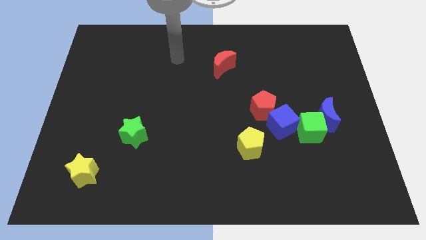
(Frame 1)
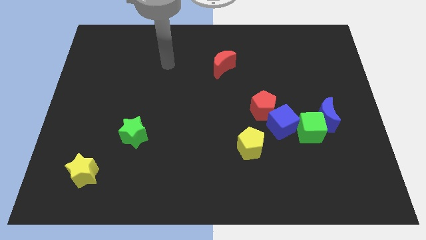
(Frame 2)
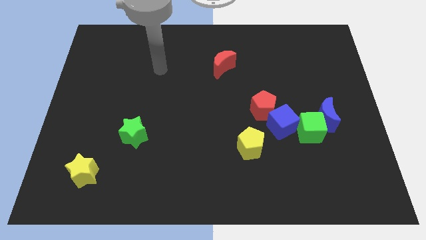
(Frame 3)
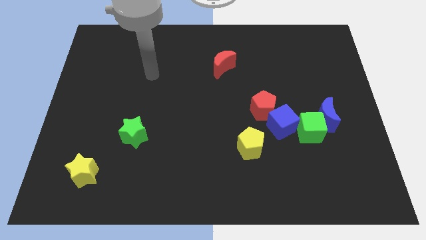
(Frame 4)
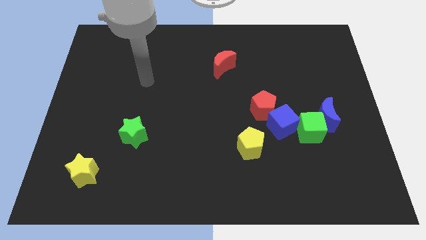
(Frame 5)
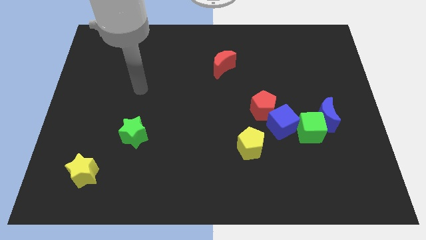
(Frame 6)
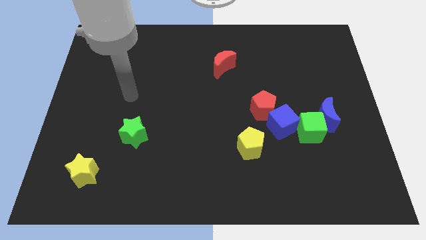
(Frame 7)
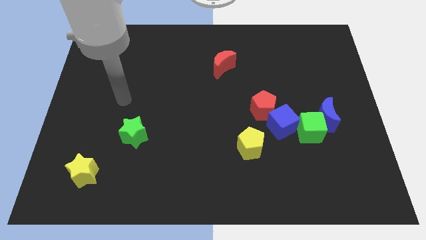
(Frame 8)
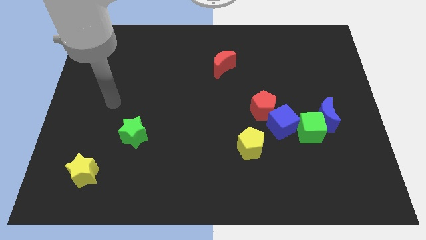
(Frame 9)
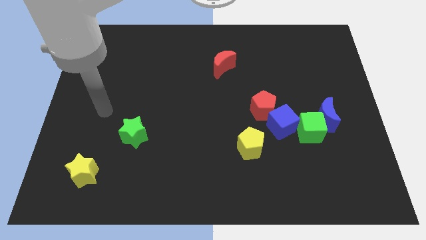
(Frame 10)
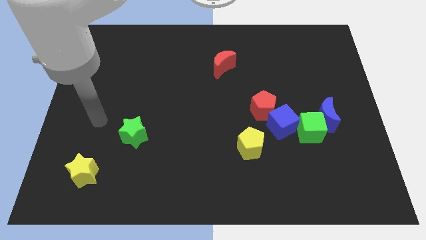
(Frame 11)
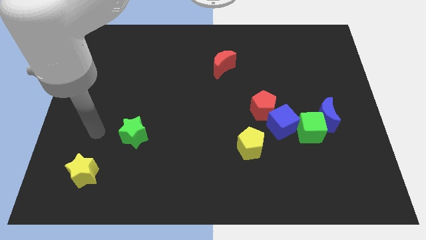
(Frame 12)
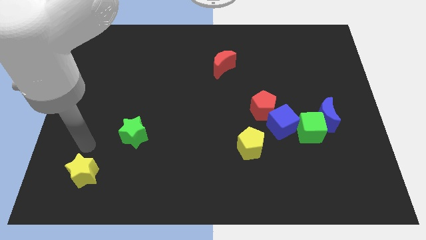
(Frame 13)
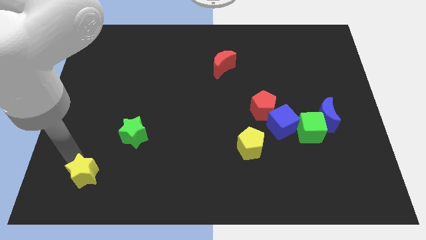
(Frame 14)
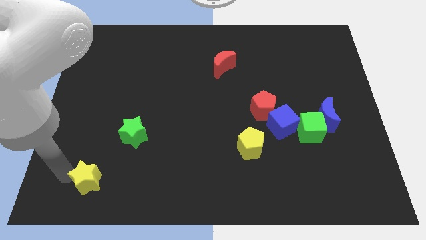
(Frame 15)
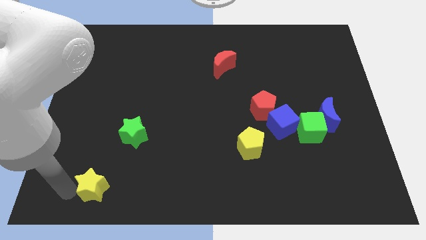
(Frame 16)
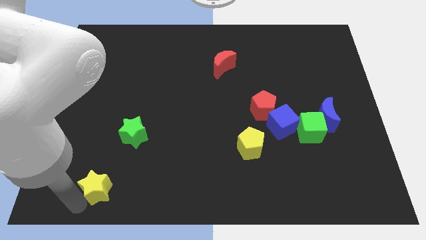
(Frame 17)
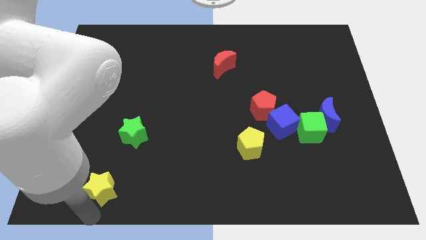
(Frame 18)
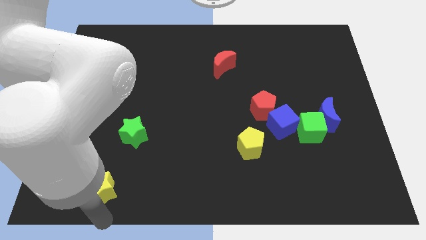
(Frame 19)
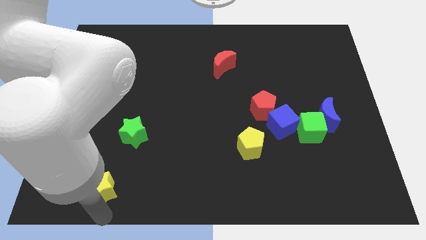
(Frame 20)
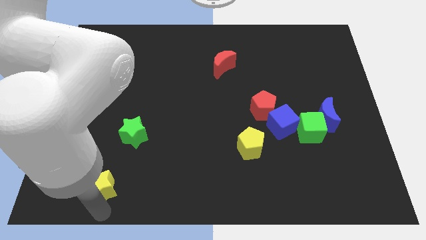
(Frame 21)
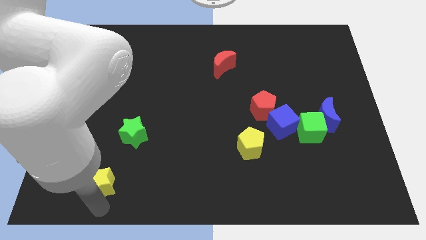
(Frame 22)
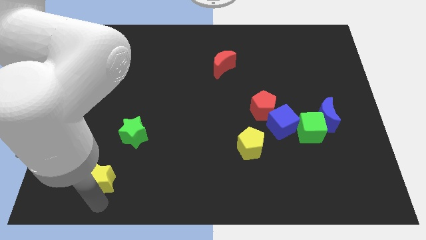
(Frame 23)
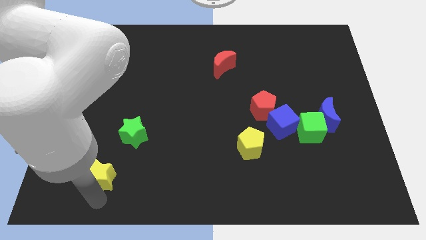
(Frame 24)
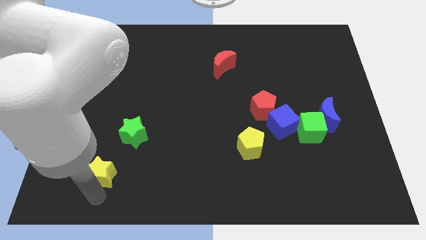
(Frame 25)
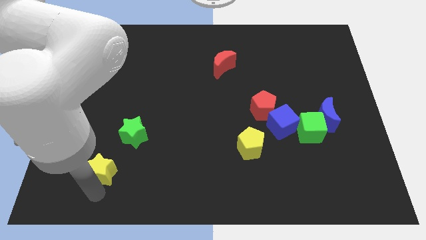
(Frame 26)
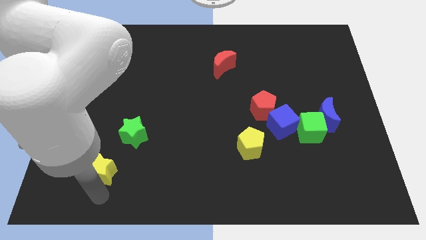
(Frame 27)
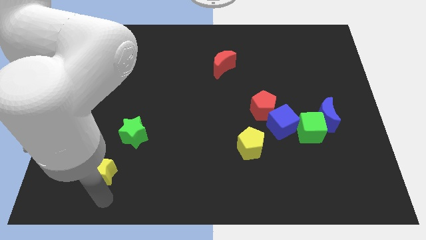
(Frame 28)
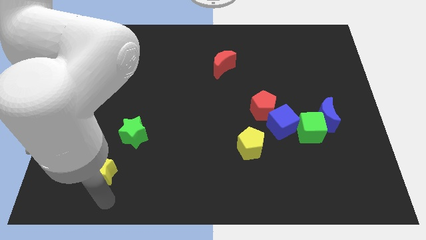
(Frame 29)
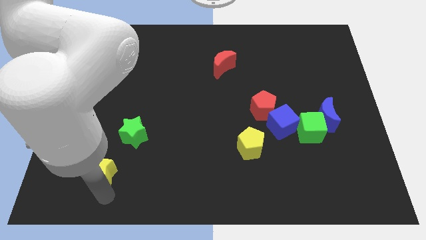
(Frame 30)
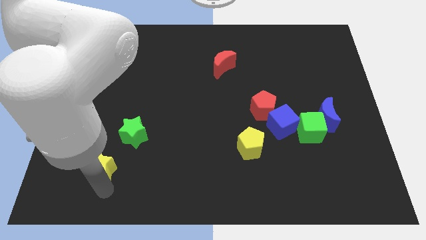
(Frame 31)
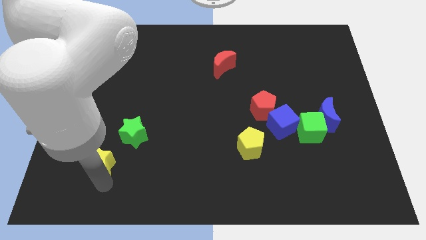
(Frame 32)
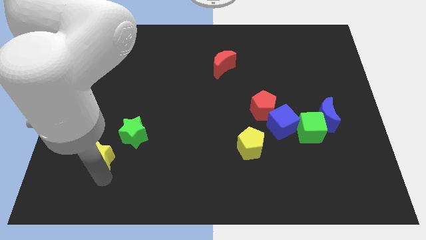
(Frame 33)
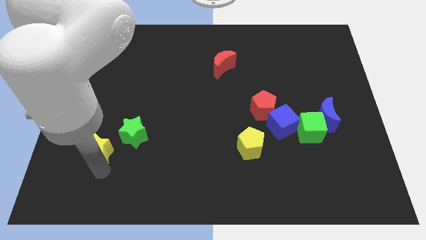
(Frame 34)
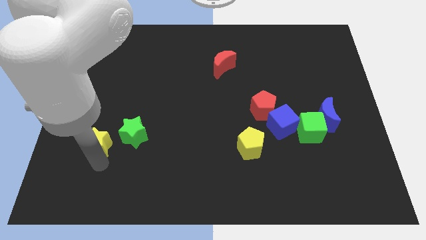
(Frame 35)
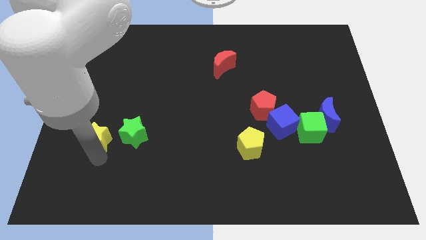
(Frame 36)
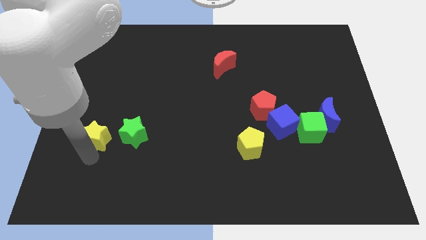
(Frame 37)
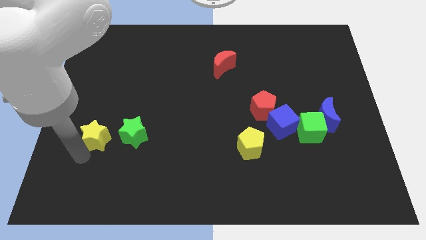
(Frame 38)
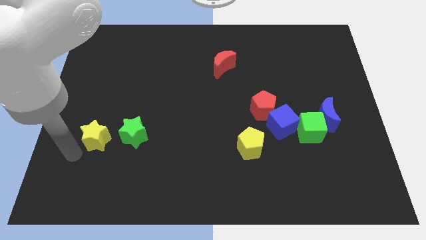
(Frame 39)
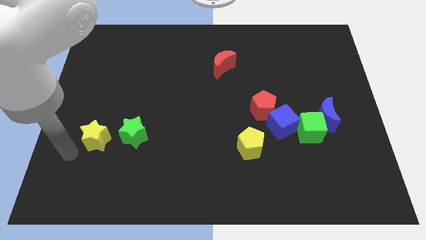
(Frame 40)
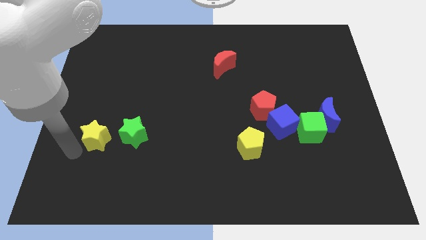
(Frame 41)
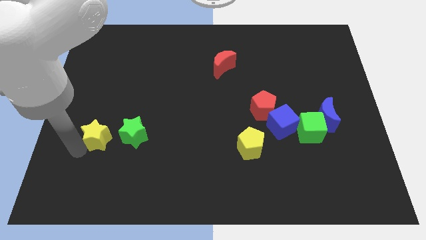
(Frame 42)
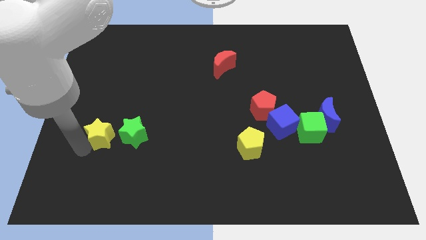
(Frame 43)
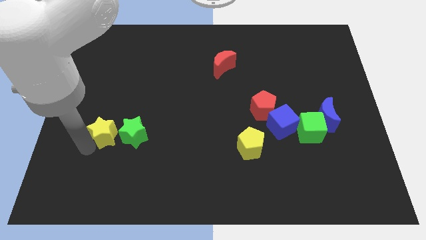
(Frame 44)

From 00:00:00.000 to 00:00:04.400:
slightly push the yellow star up and to the right diagonally

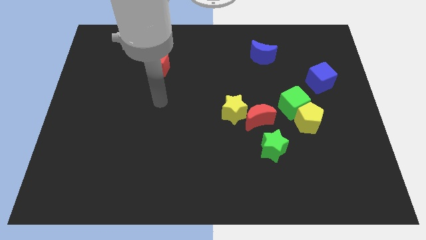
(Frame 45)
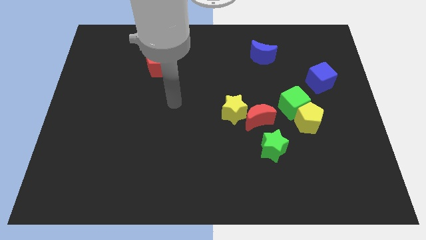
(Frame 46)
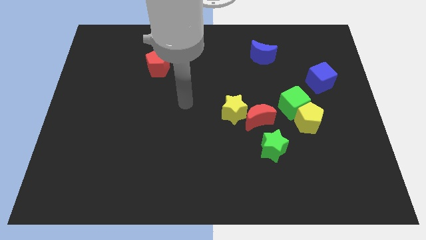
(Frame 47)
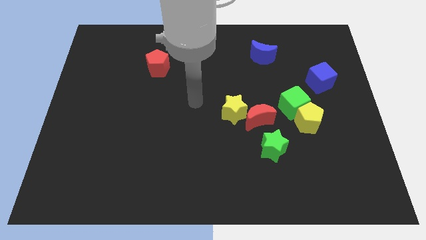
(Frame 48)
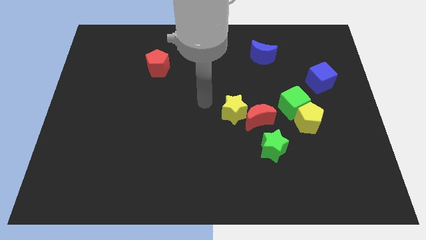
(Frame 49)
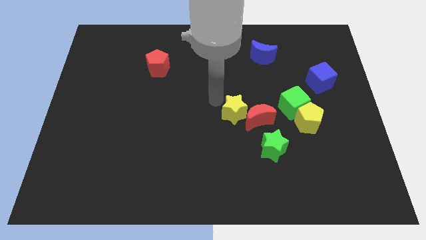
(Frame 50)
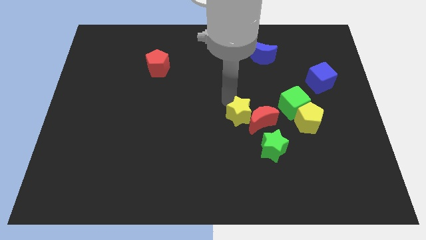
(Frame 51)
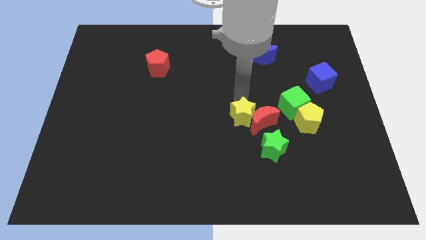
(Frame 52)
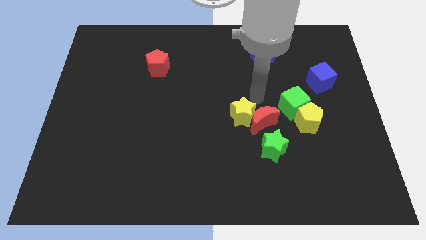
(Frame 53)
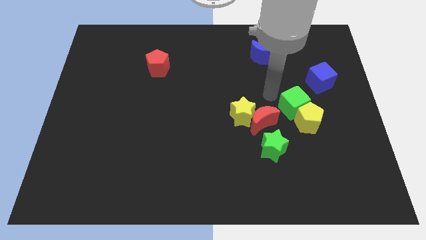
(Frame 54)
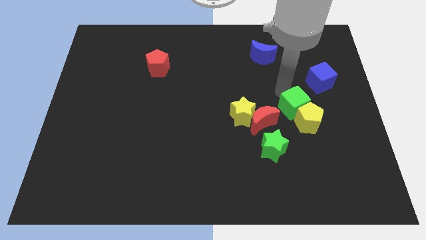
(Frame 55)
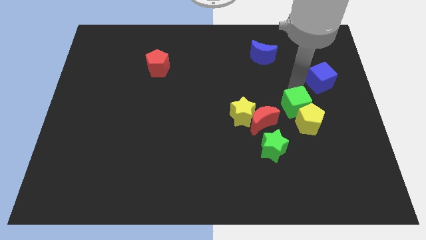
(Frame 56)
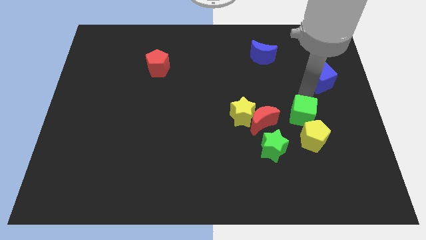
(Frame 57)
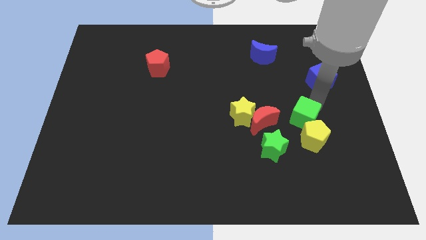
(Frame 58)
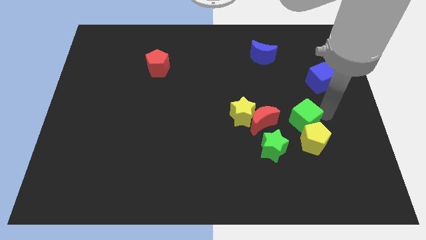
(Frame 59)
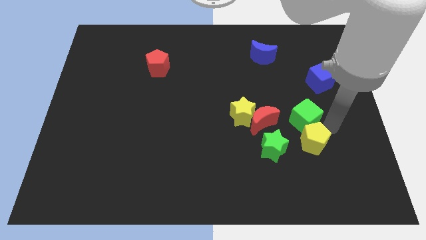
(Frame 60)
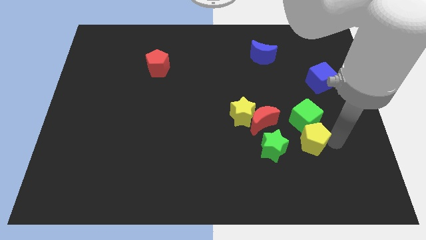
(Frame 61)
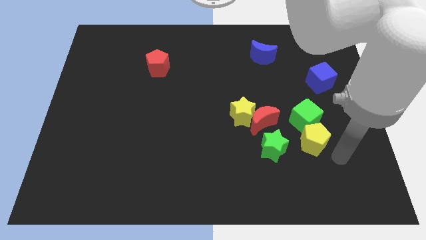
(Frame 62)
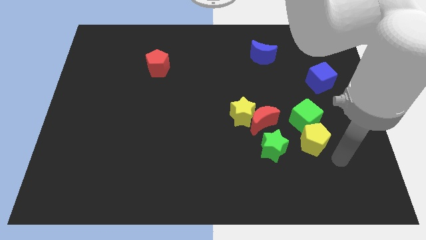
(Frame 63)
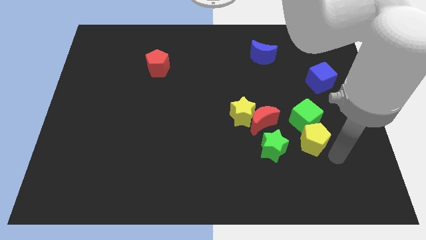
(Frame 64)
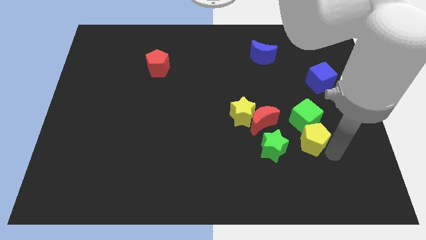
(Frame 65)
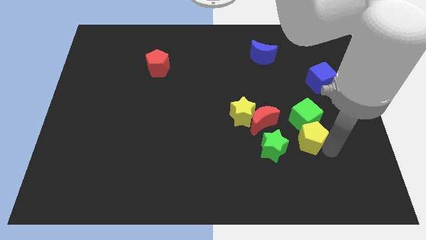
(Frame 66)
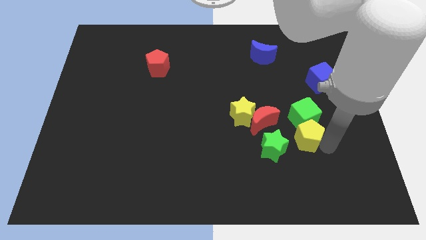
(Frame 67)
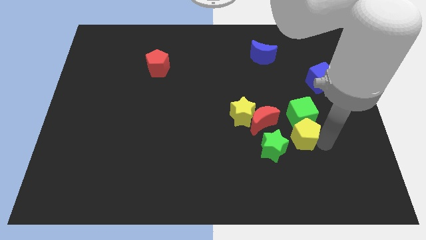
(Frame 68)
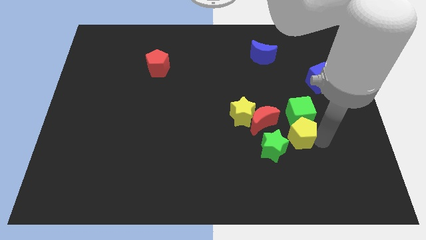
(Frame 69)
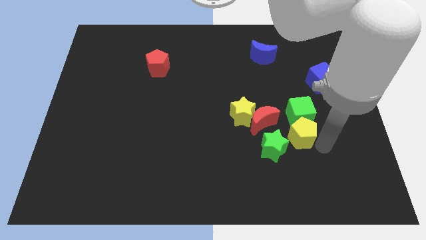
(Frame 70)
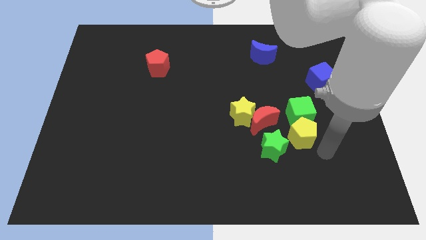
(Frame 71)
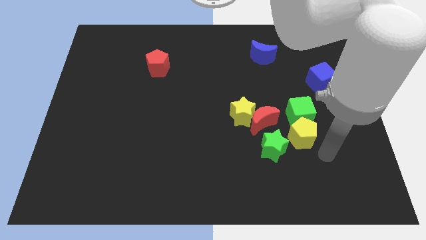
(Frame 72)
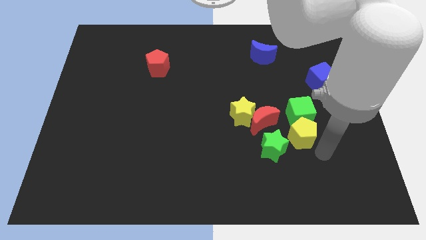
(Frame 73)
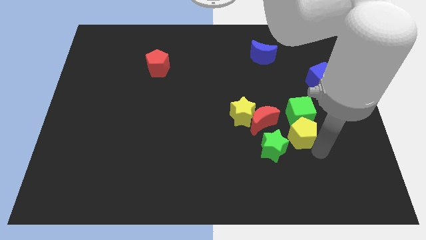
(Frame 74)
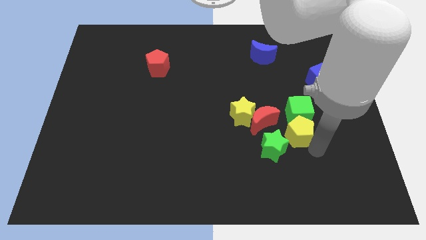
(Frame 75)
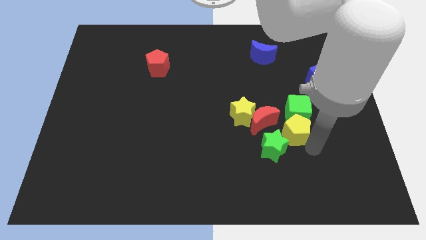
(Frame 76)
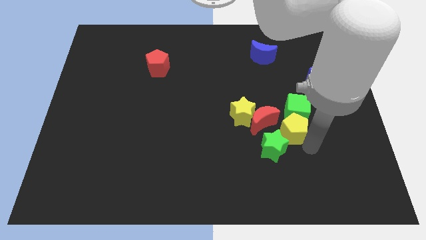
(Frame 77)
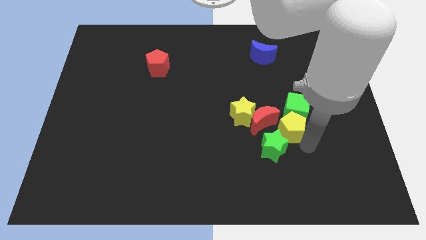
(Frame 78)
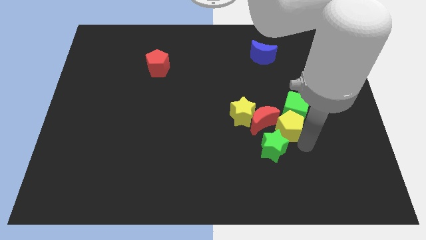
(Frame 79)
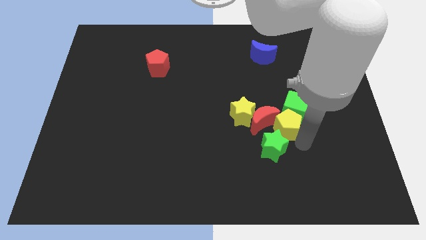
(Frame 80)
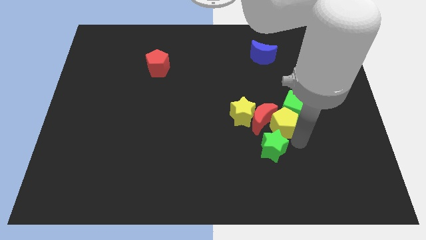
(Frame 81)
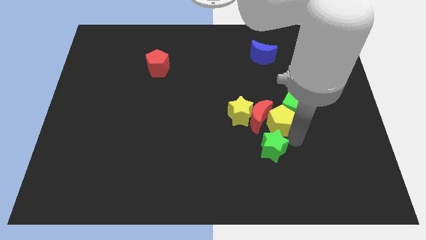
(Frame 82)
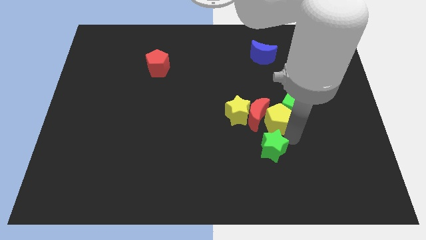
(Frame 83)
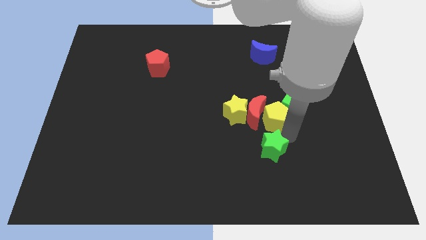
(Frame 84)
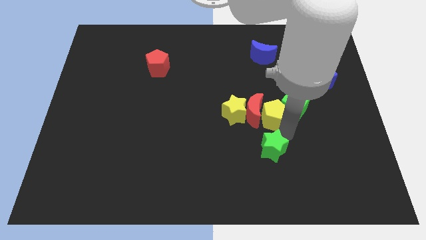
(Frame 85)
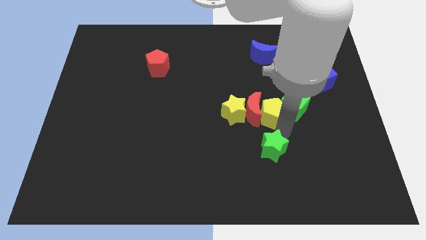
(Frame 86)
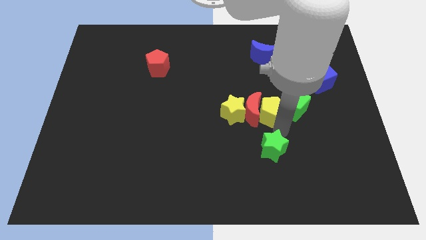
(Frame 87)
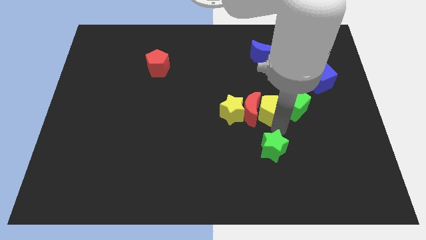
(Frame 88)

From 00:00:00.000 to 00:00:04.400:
push the yellow pentagon somewhat diagonally up and to the left
